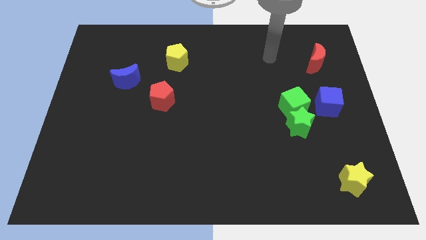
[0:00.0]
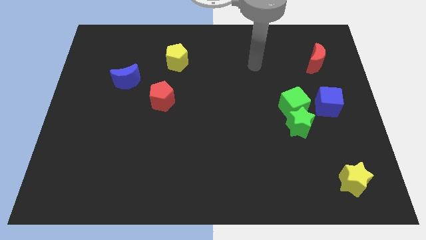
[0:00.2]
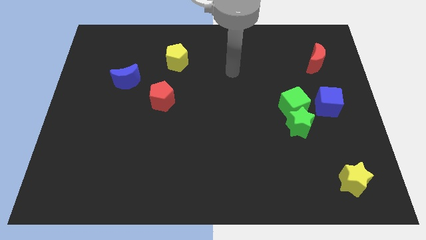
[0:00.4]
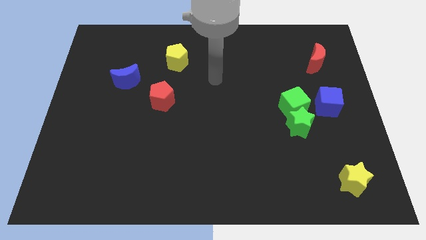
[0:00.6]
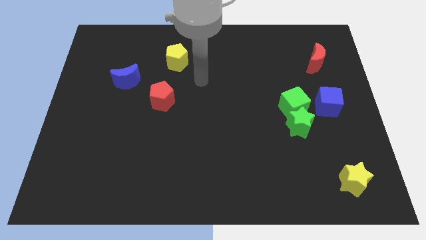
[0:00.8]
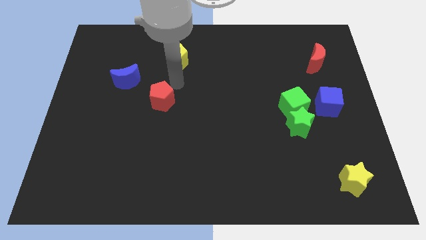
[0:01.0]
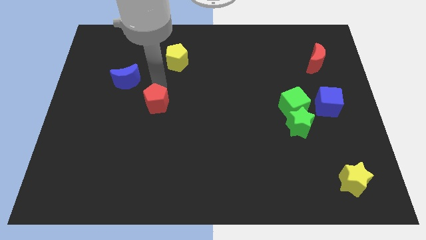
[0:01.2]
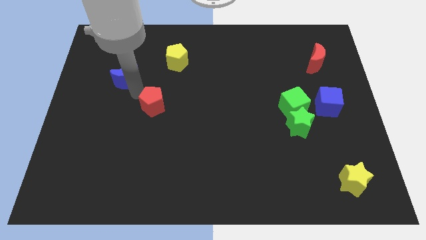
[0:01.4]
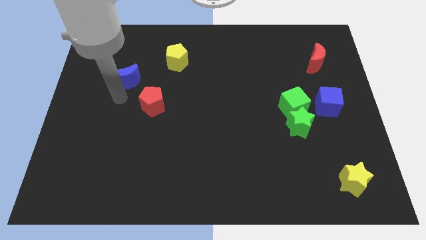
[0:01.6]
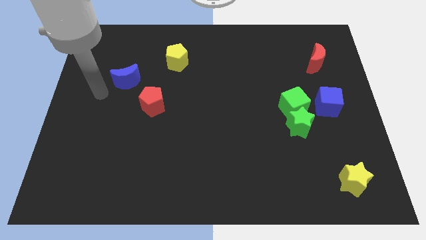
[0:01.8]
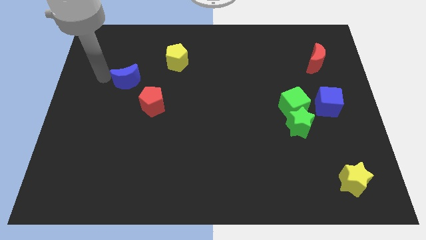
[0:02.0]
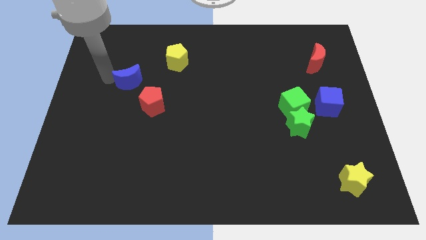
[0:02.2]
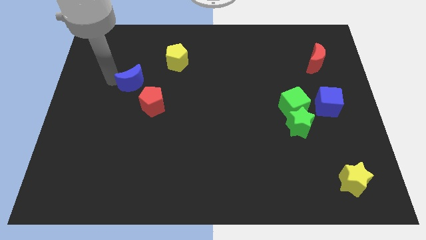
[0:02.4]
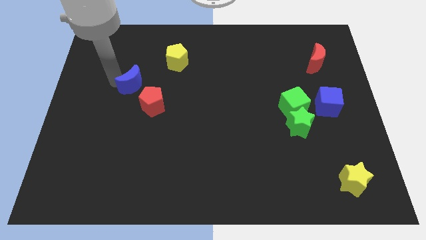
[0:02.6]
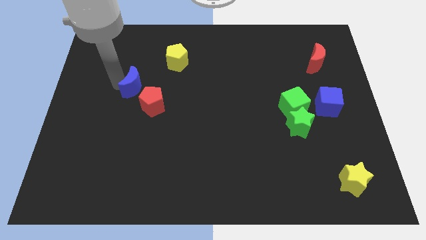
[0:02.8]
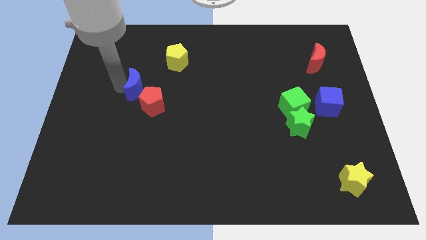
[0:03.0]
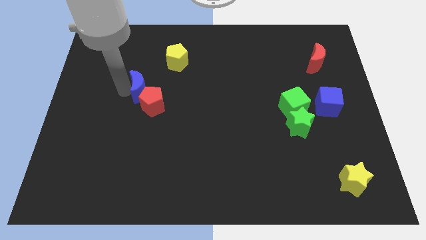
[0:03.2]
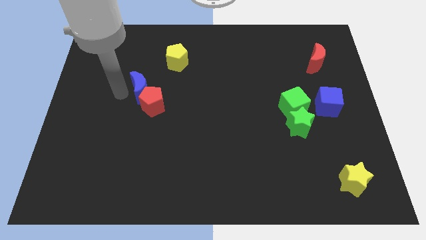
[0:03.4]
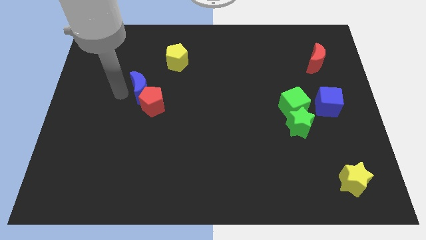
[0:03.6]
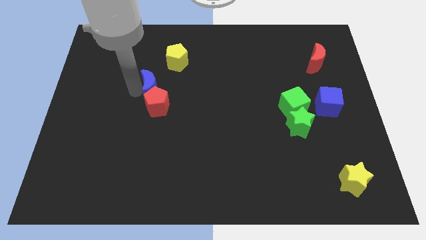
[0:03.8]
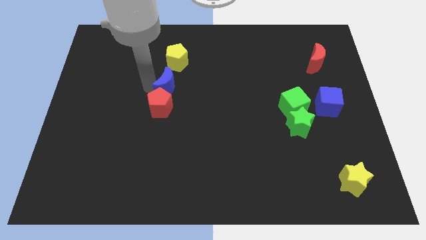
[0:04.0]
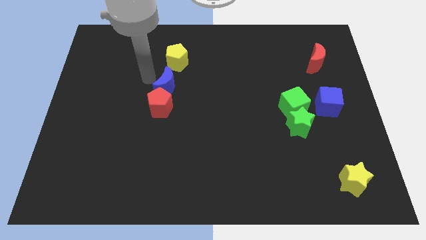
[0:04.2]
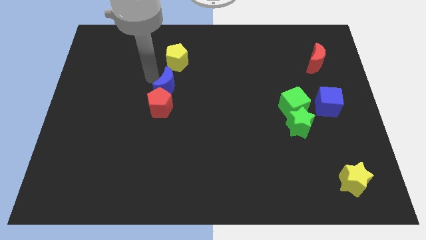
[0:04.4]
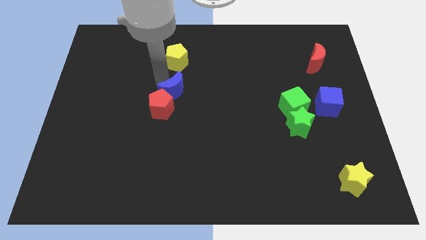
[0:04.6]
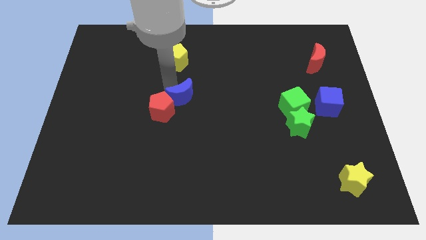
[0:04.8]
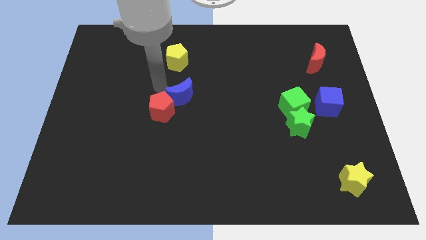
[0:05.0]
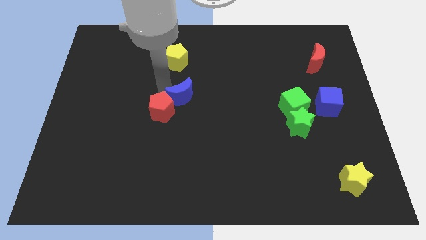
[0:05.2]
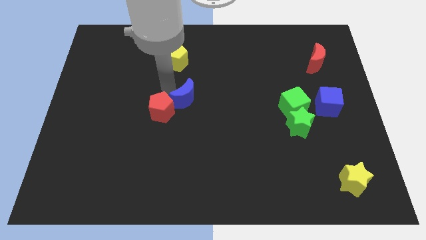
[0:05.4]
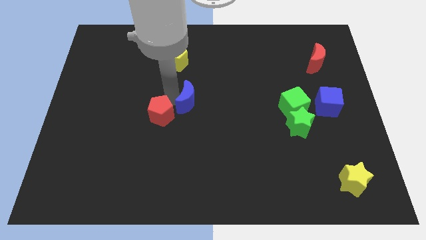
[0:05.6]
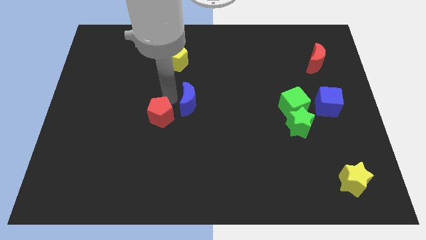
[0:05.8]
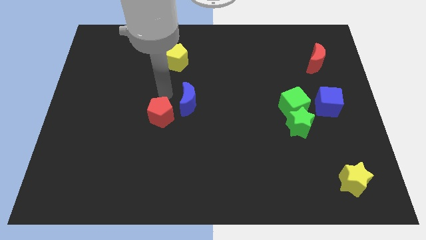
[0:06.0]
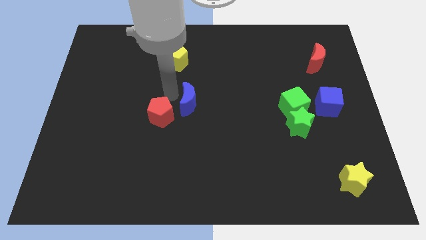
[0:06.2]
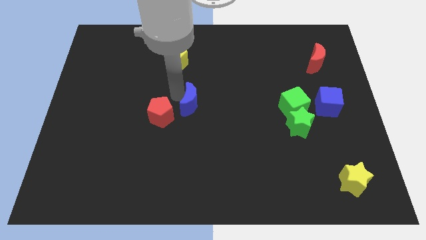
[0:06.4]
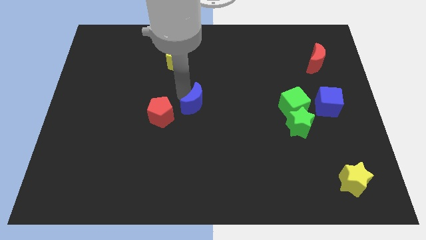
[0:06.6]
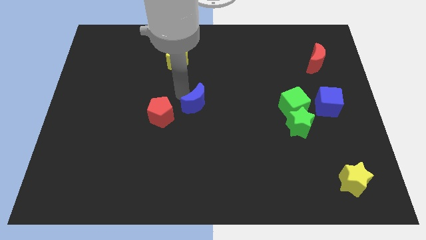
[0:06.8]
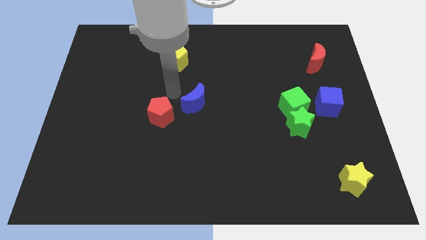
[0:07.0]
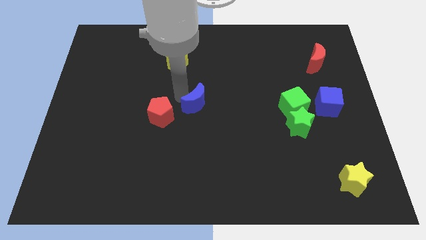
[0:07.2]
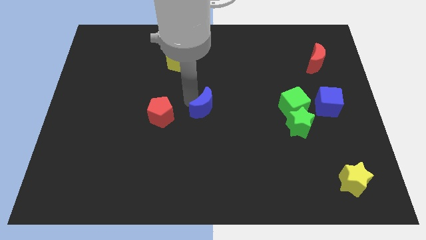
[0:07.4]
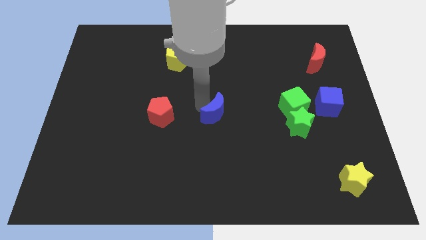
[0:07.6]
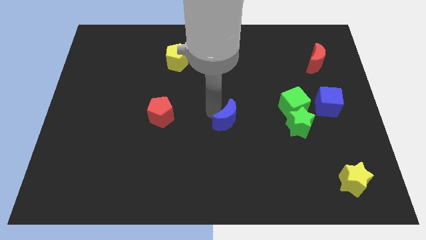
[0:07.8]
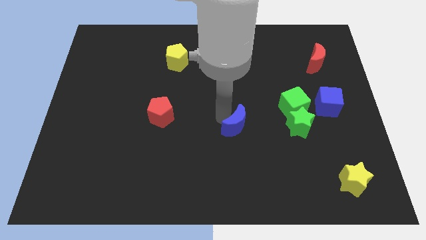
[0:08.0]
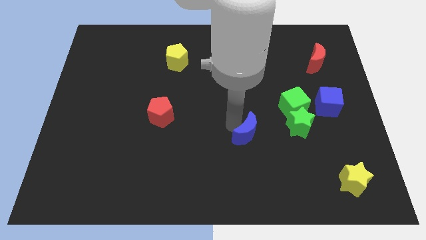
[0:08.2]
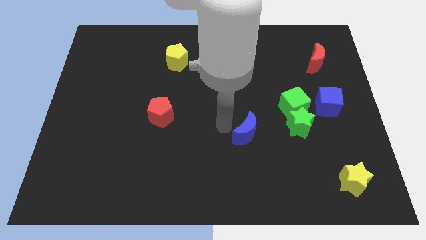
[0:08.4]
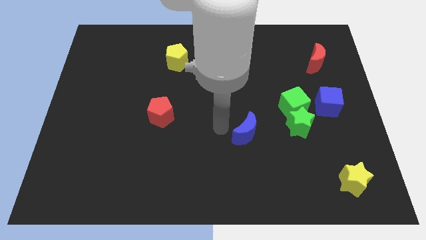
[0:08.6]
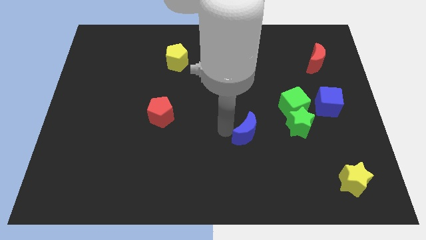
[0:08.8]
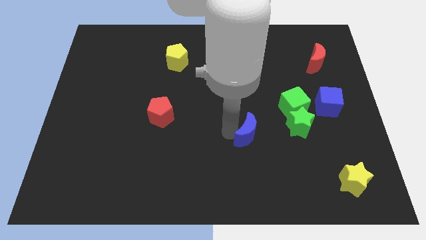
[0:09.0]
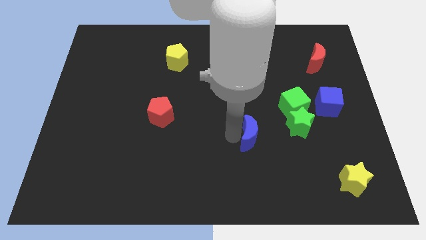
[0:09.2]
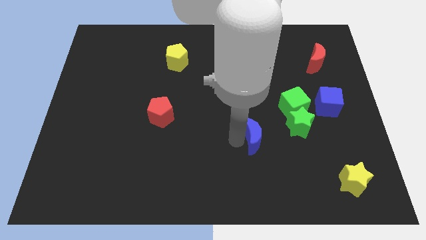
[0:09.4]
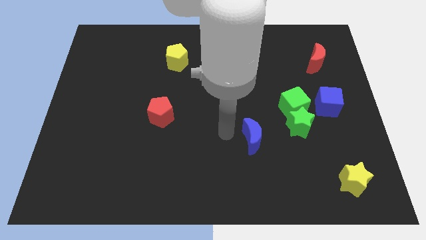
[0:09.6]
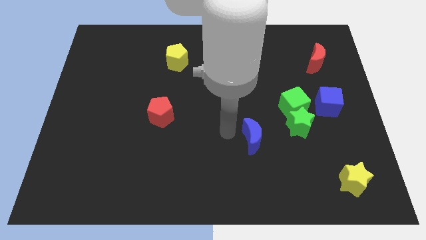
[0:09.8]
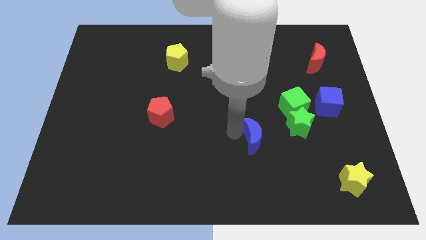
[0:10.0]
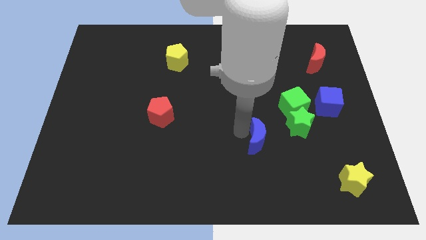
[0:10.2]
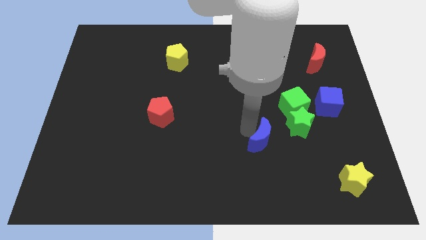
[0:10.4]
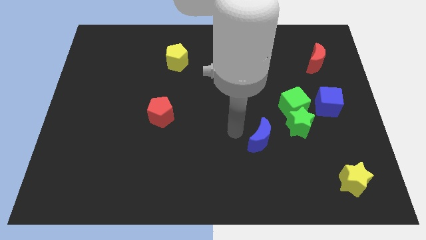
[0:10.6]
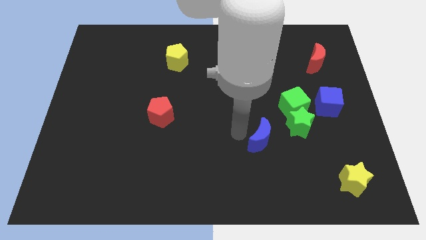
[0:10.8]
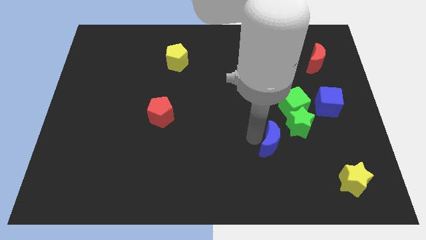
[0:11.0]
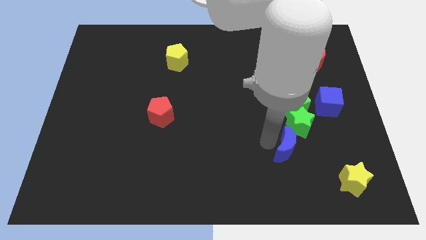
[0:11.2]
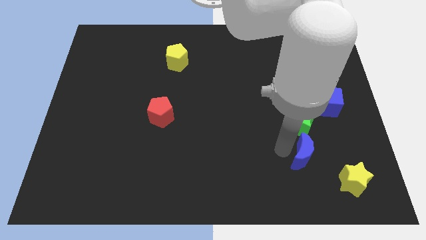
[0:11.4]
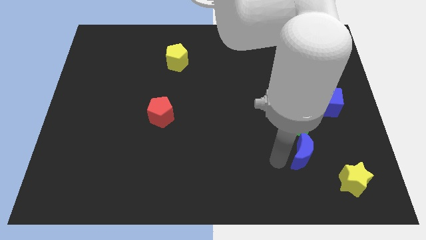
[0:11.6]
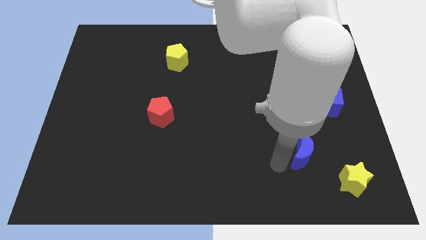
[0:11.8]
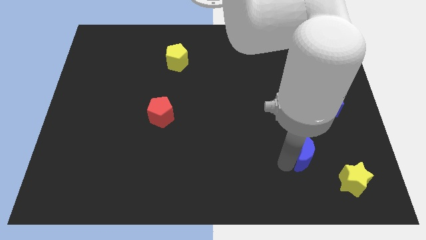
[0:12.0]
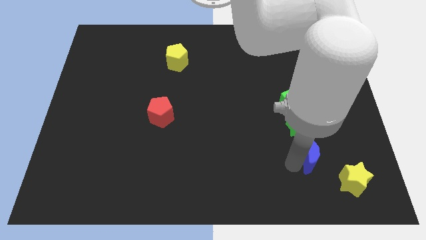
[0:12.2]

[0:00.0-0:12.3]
move the blue moon to the bottom right of the green star

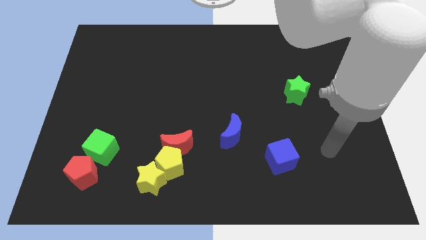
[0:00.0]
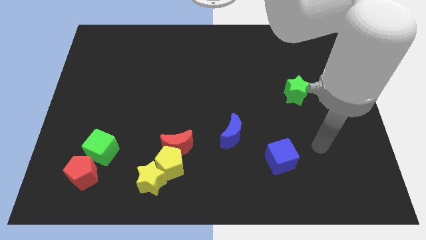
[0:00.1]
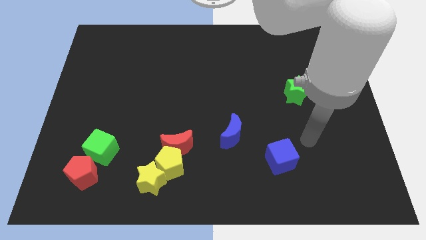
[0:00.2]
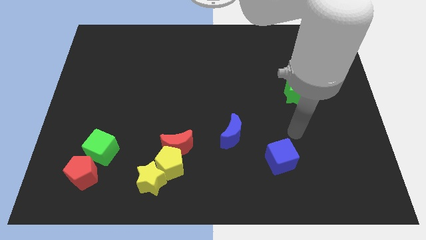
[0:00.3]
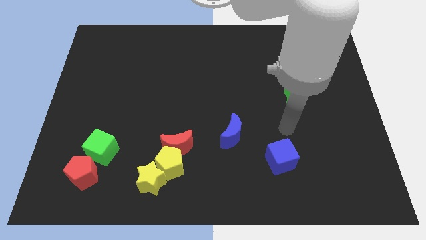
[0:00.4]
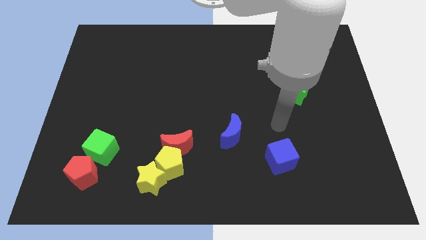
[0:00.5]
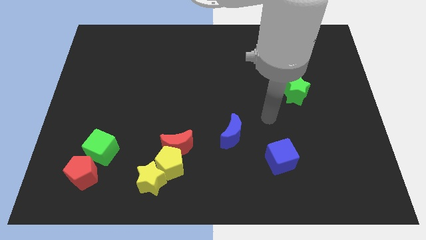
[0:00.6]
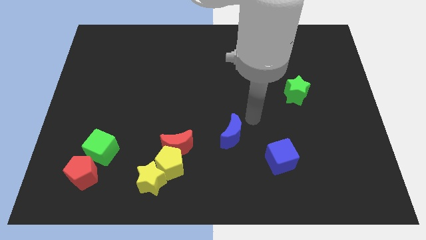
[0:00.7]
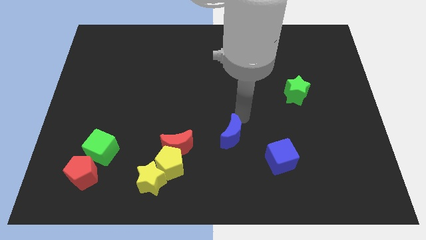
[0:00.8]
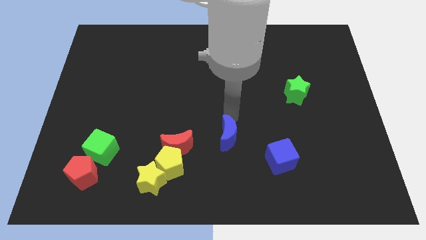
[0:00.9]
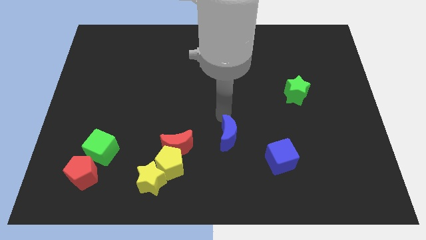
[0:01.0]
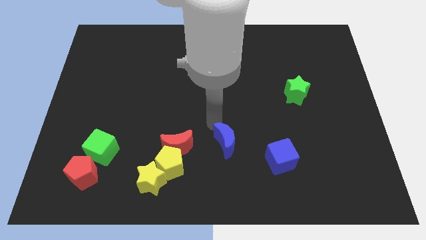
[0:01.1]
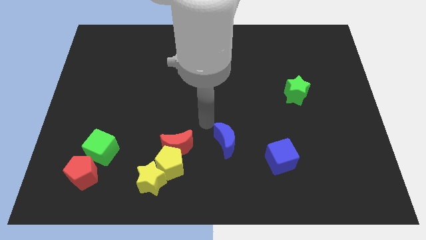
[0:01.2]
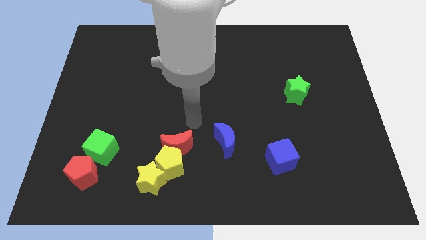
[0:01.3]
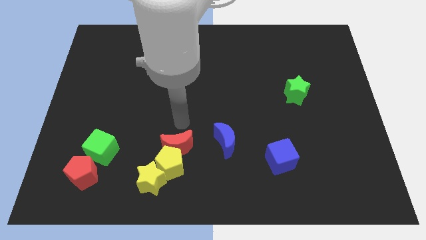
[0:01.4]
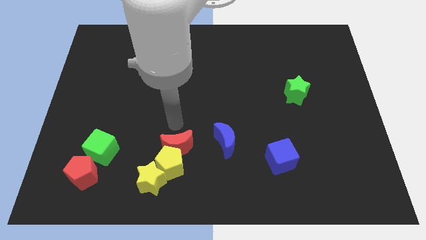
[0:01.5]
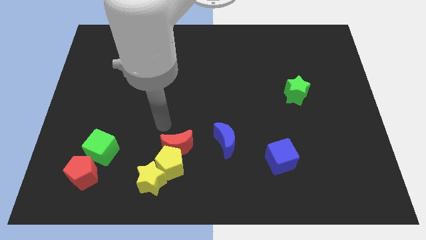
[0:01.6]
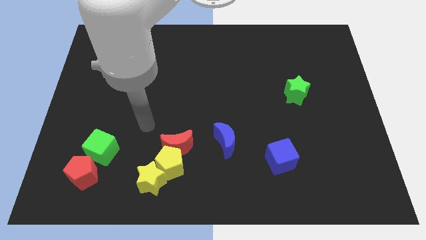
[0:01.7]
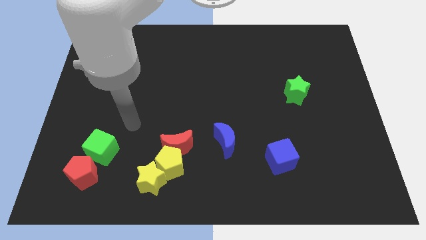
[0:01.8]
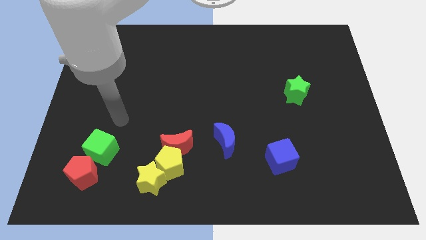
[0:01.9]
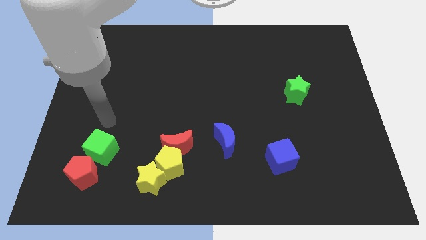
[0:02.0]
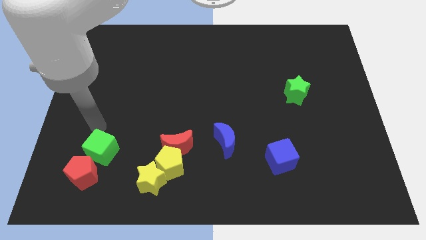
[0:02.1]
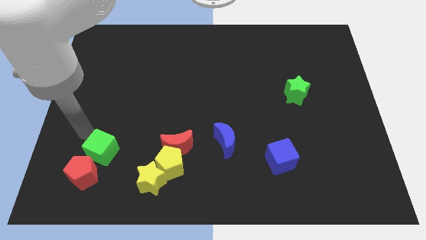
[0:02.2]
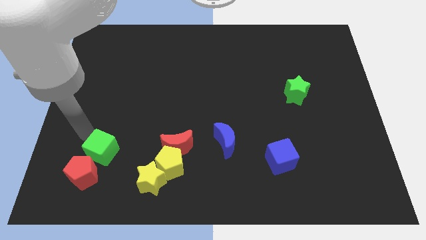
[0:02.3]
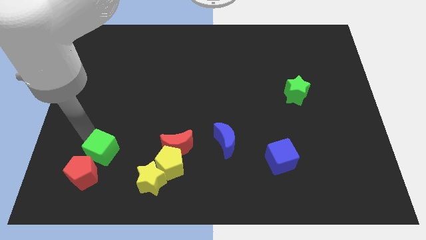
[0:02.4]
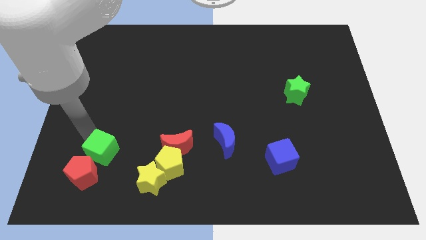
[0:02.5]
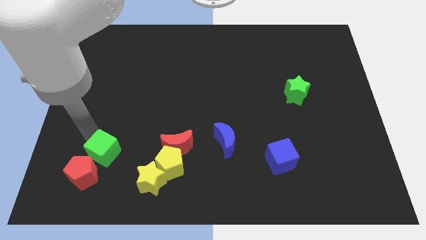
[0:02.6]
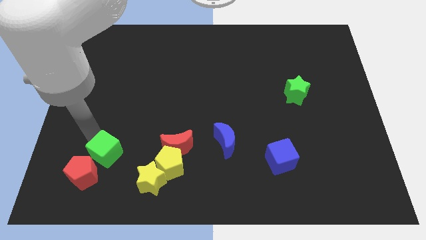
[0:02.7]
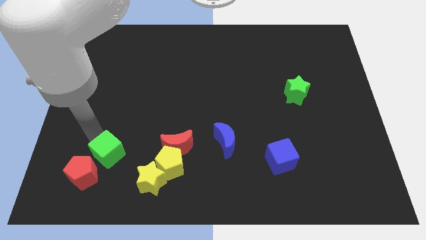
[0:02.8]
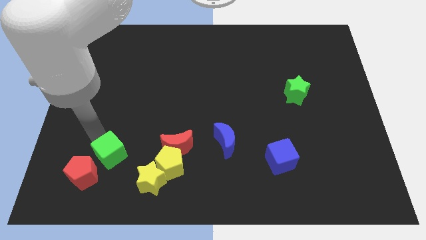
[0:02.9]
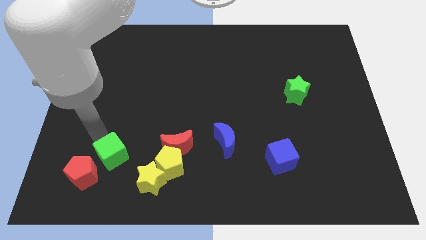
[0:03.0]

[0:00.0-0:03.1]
move the green cube to the right side of the red pentagon
